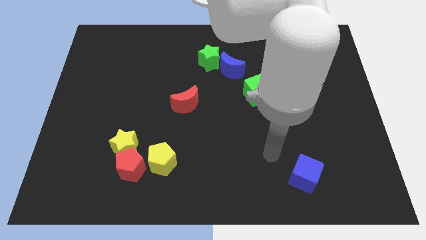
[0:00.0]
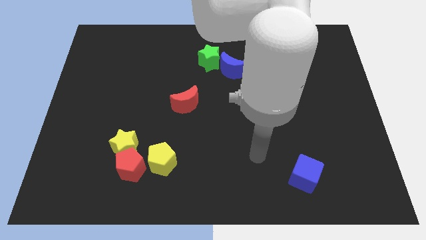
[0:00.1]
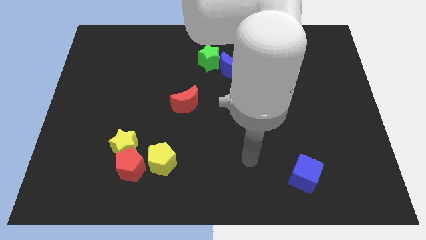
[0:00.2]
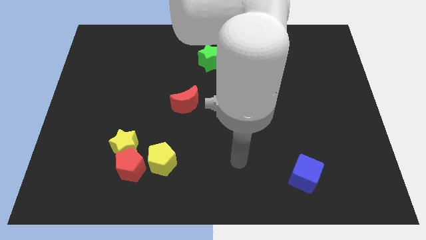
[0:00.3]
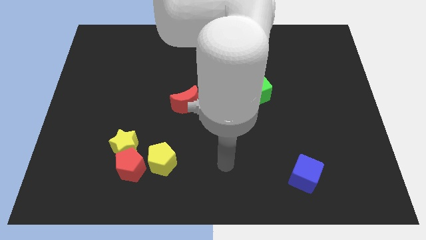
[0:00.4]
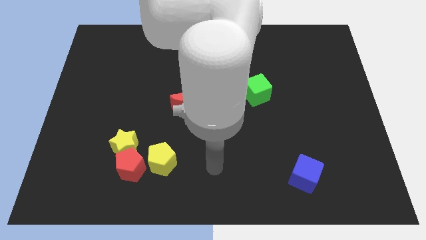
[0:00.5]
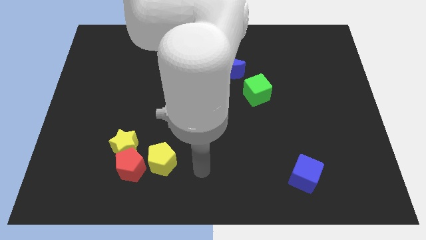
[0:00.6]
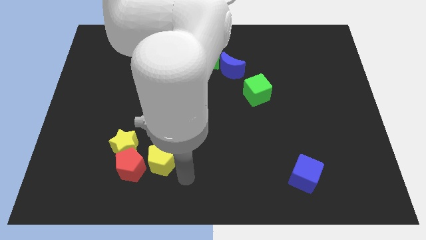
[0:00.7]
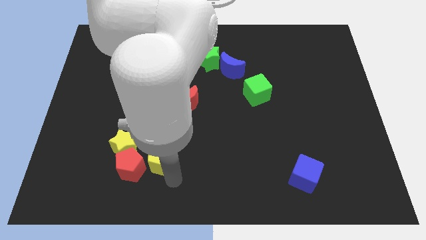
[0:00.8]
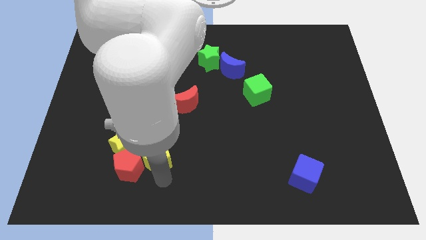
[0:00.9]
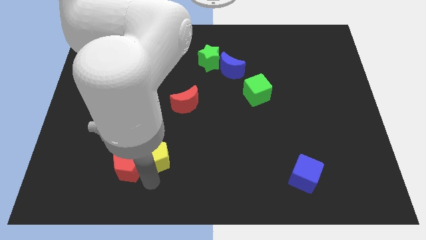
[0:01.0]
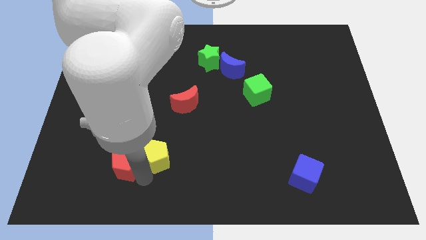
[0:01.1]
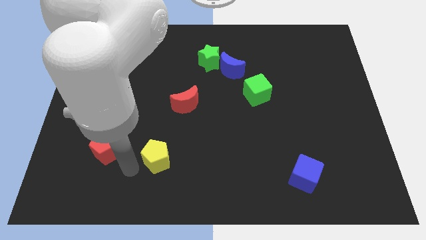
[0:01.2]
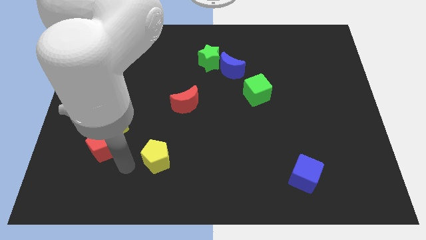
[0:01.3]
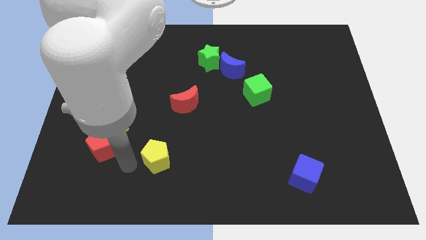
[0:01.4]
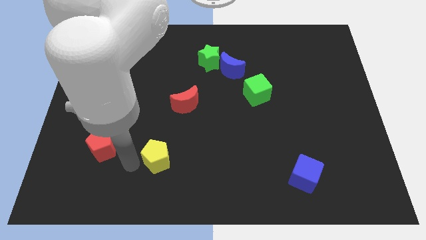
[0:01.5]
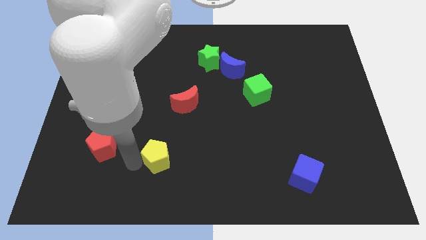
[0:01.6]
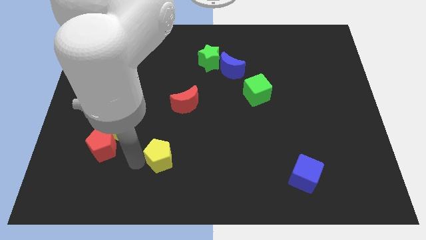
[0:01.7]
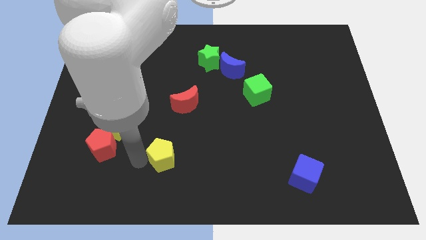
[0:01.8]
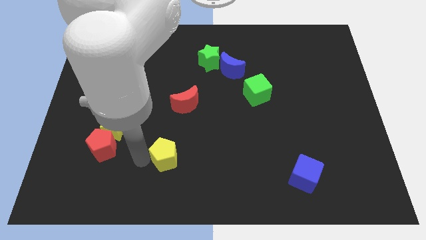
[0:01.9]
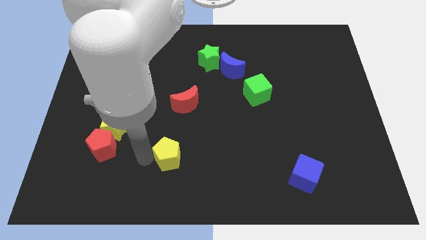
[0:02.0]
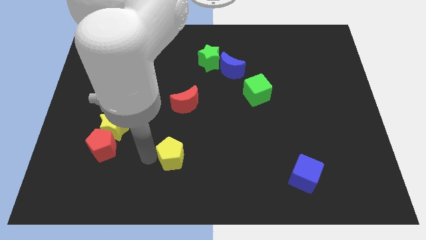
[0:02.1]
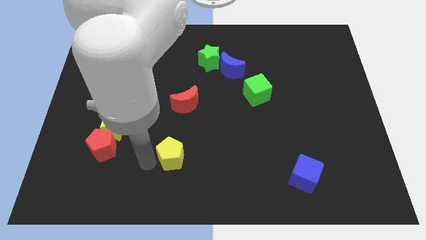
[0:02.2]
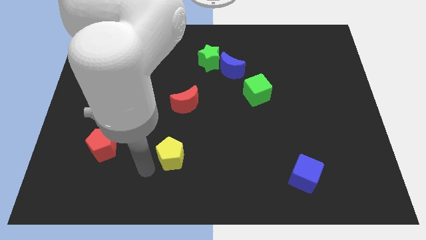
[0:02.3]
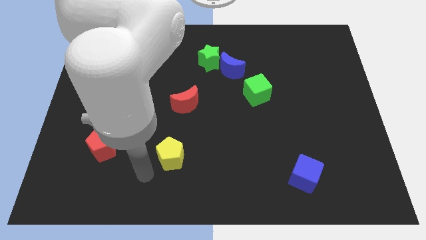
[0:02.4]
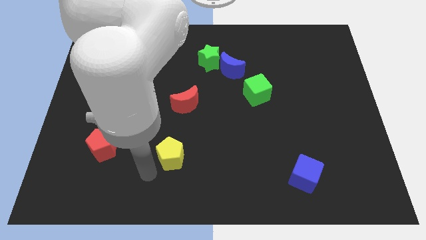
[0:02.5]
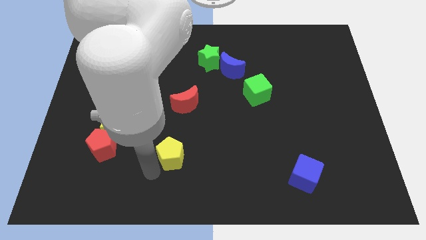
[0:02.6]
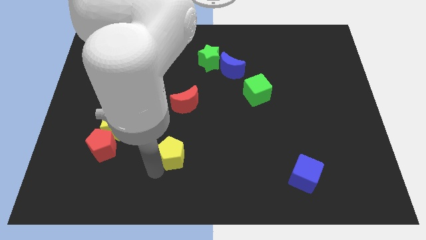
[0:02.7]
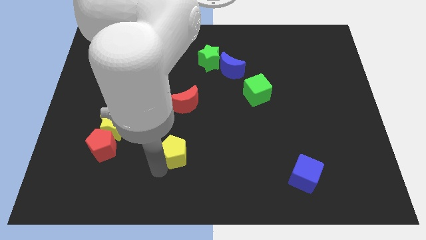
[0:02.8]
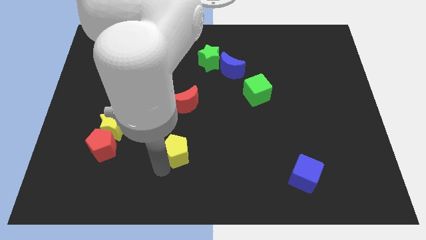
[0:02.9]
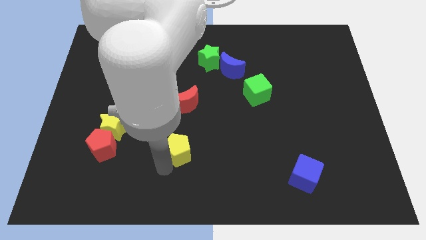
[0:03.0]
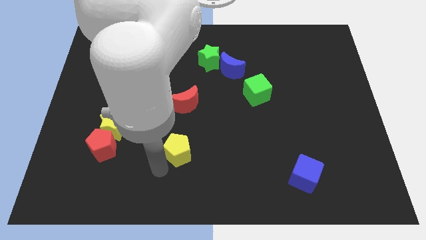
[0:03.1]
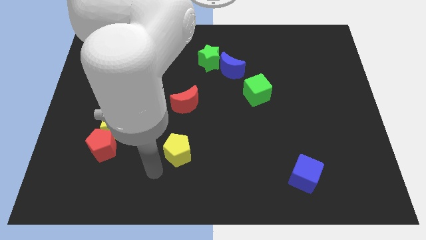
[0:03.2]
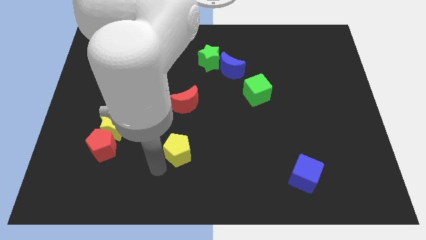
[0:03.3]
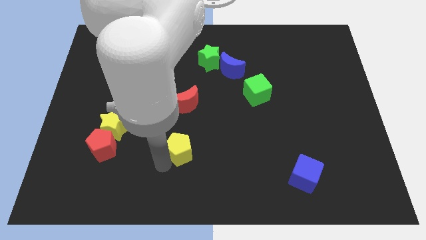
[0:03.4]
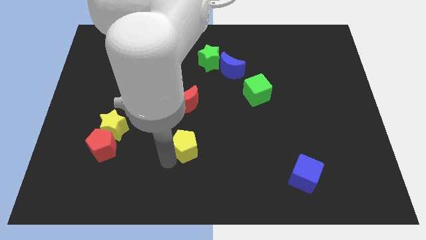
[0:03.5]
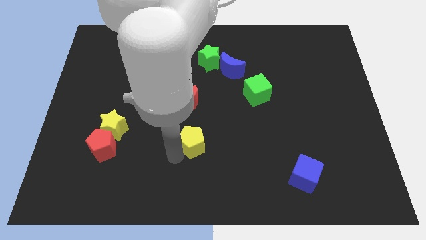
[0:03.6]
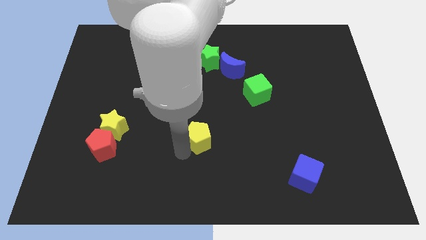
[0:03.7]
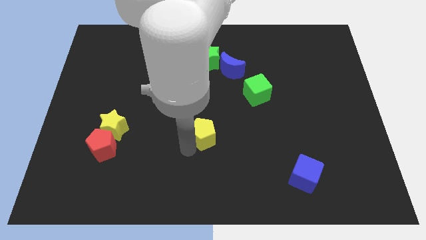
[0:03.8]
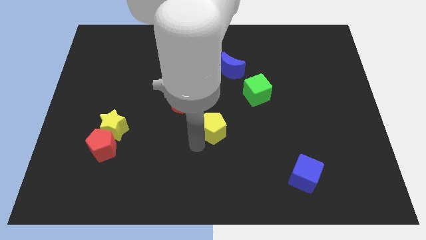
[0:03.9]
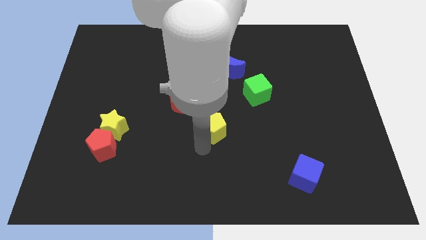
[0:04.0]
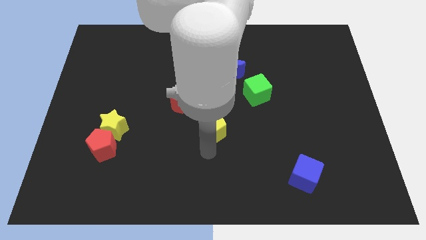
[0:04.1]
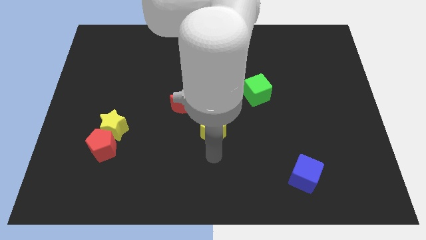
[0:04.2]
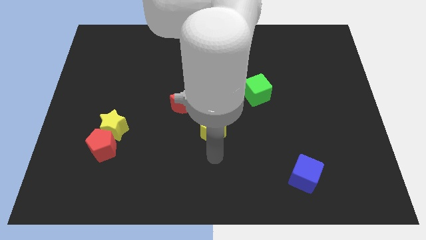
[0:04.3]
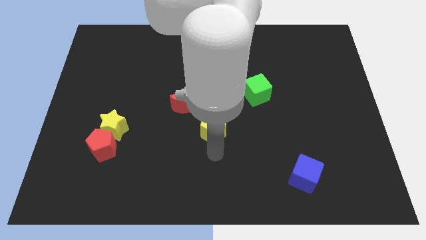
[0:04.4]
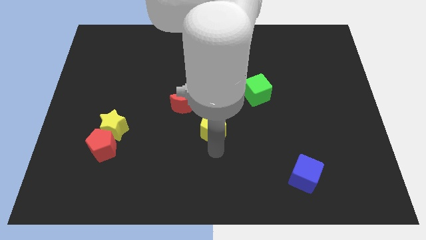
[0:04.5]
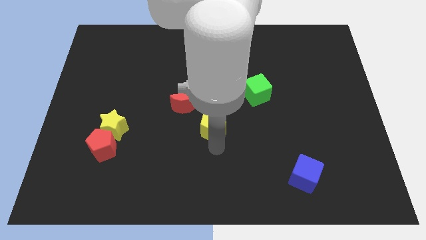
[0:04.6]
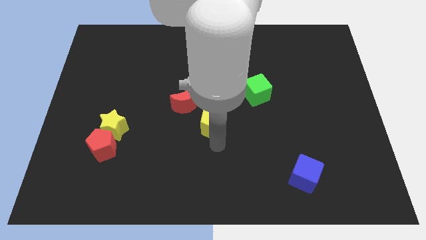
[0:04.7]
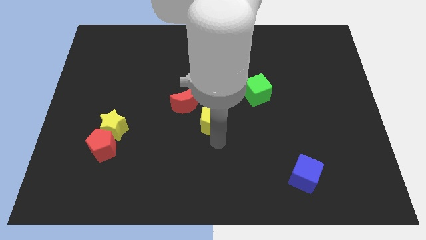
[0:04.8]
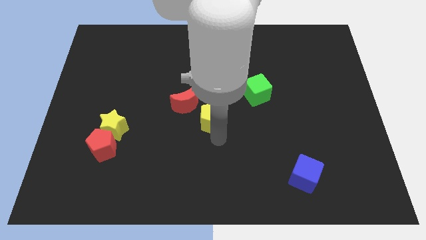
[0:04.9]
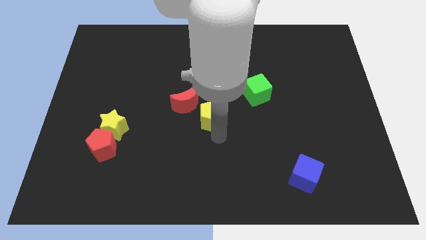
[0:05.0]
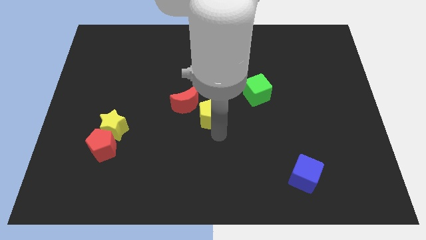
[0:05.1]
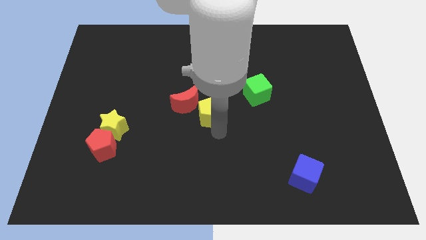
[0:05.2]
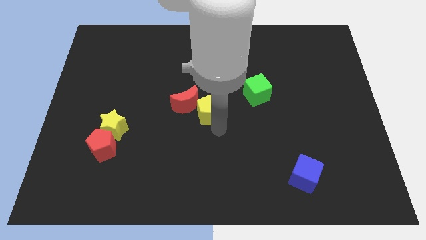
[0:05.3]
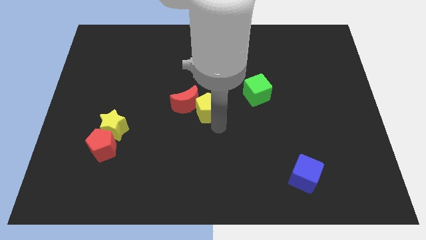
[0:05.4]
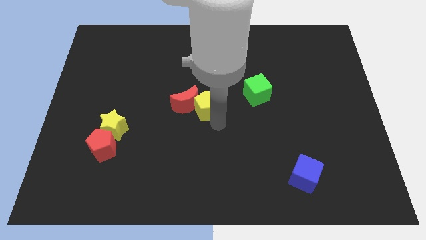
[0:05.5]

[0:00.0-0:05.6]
push the yellow pentagon to the bottom side of the green star

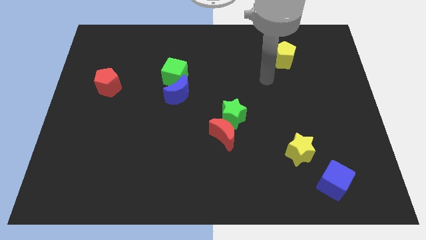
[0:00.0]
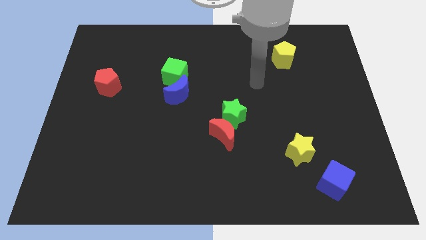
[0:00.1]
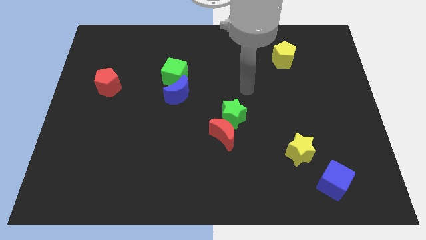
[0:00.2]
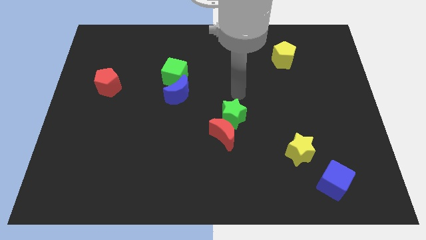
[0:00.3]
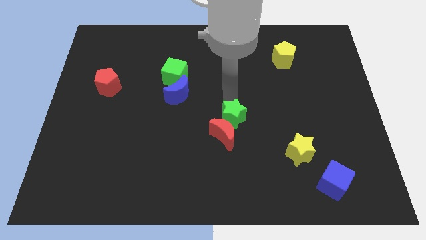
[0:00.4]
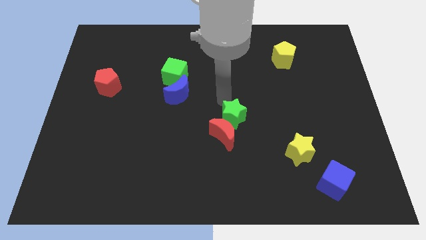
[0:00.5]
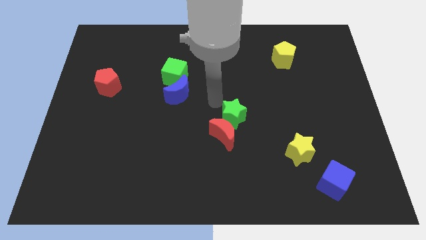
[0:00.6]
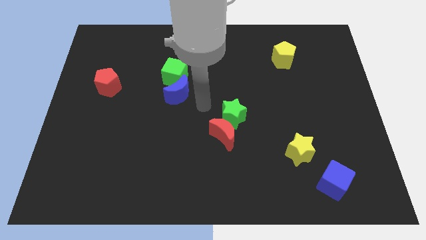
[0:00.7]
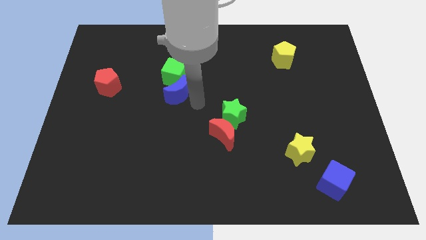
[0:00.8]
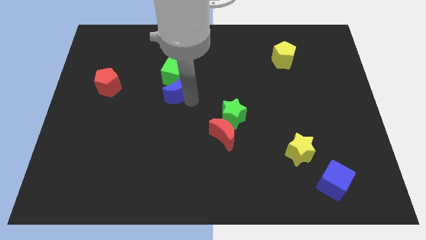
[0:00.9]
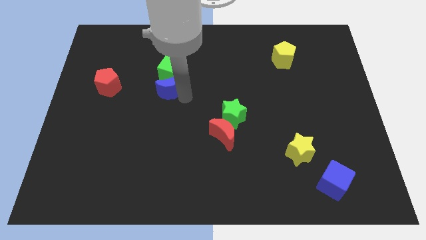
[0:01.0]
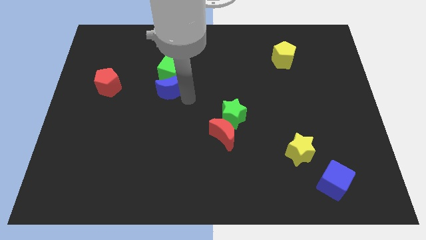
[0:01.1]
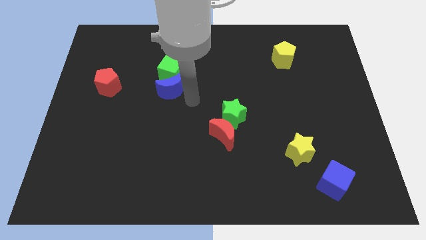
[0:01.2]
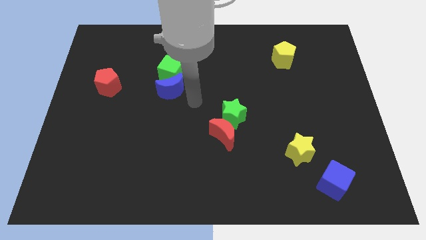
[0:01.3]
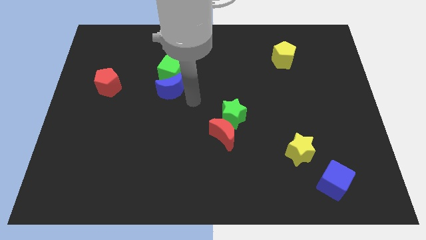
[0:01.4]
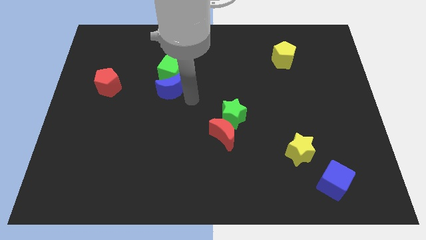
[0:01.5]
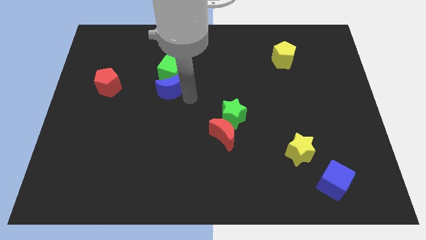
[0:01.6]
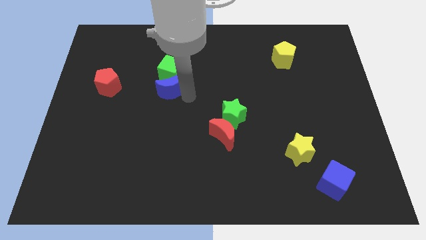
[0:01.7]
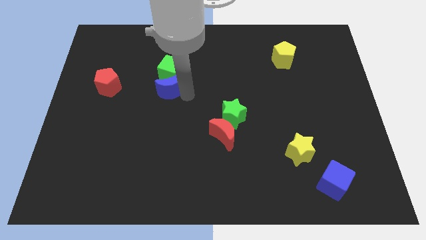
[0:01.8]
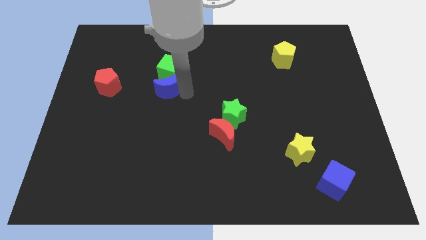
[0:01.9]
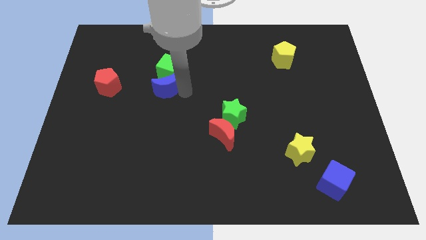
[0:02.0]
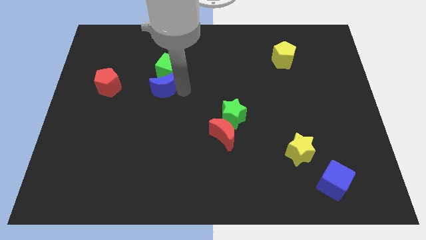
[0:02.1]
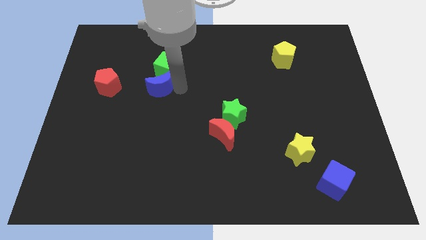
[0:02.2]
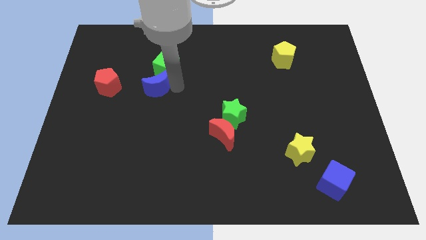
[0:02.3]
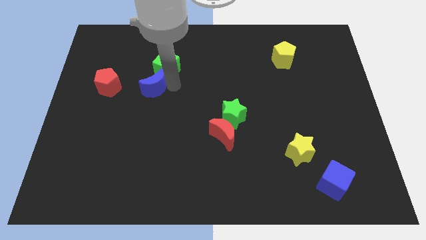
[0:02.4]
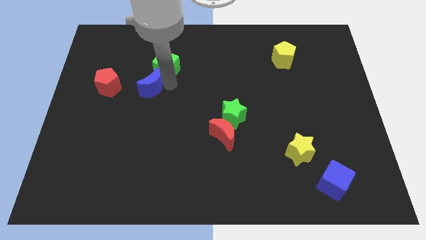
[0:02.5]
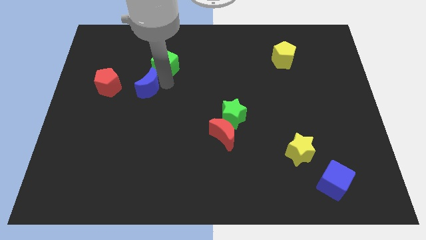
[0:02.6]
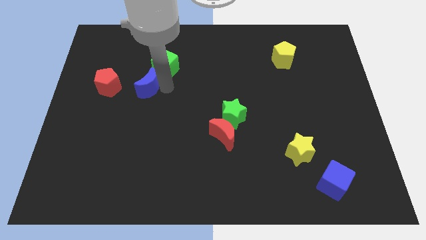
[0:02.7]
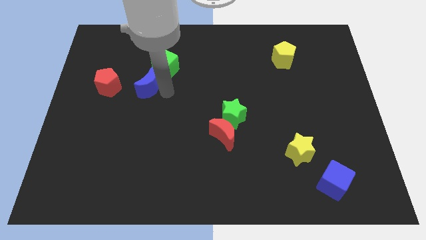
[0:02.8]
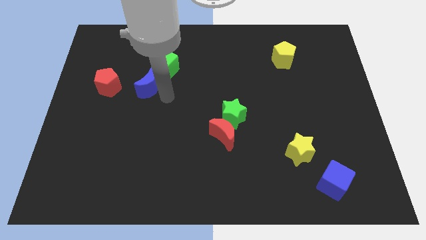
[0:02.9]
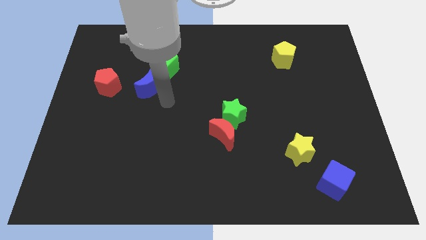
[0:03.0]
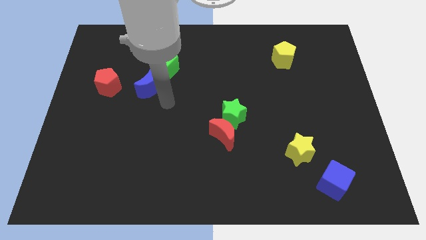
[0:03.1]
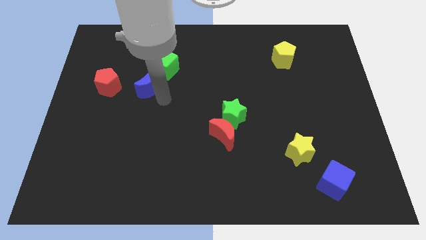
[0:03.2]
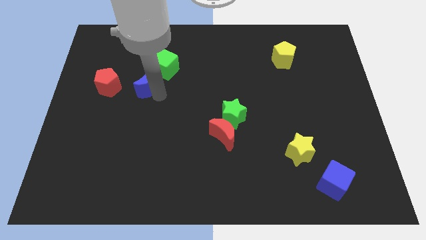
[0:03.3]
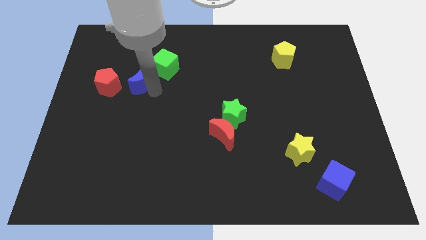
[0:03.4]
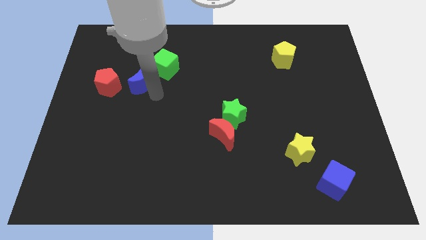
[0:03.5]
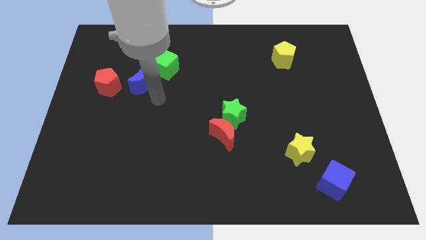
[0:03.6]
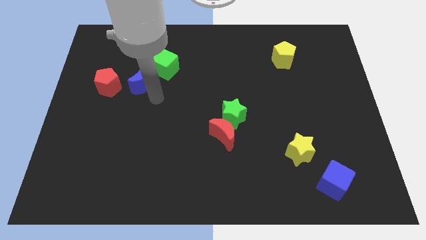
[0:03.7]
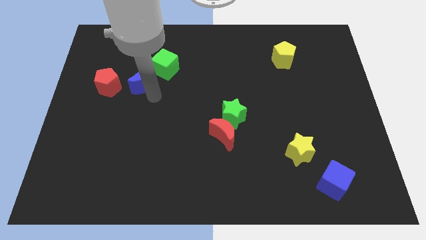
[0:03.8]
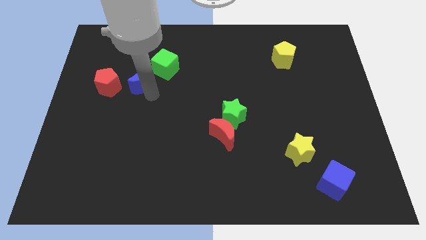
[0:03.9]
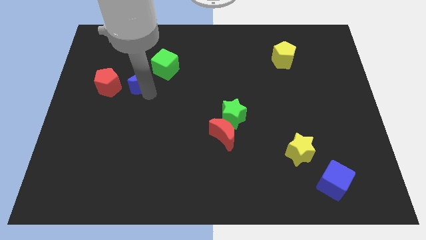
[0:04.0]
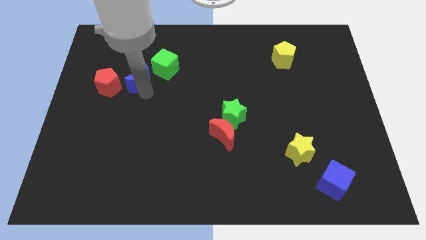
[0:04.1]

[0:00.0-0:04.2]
put the blue moon to the top right side of the red pentagon
